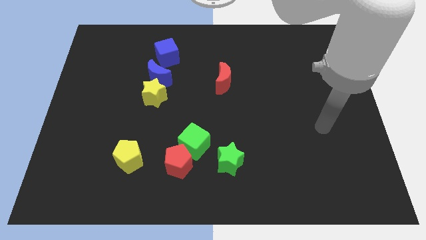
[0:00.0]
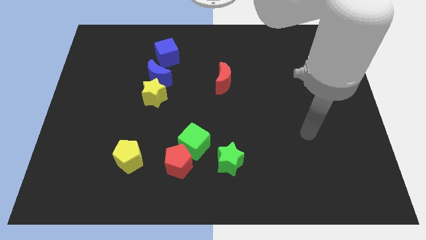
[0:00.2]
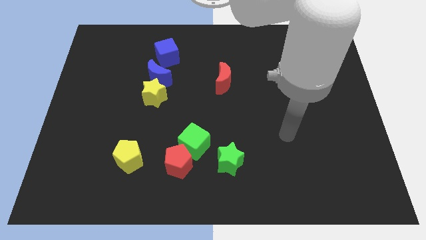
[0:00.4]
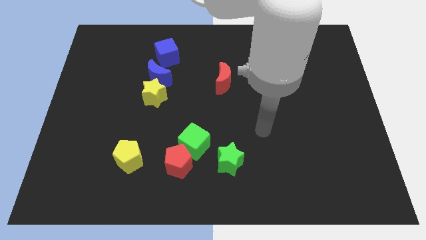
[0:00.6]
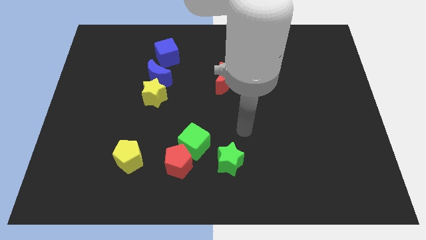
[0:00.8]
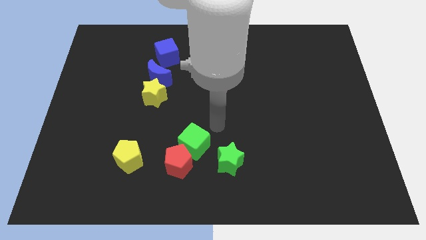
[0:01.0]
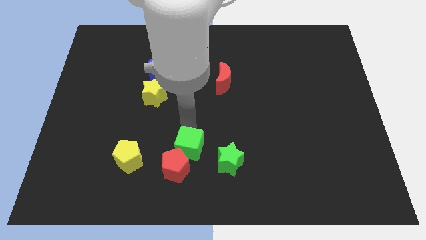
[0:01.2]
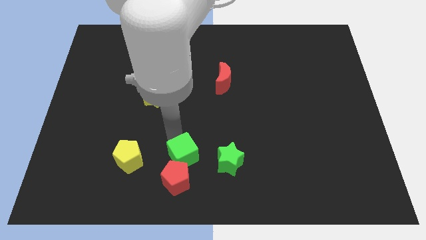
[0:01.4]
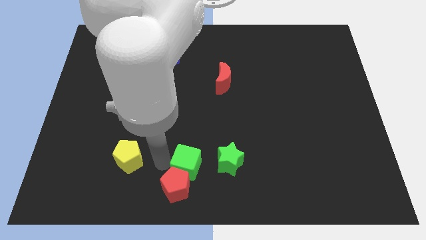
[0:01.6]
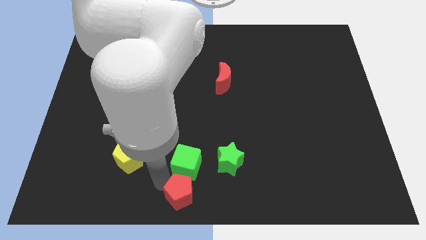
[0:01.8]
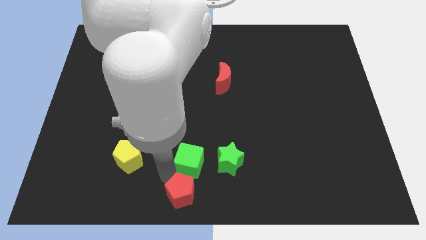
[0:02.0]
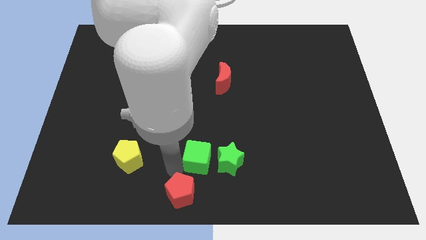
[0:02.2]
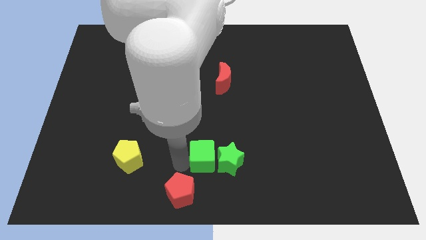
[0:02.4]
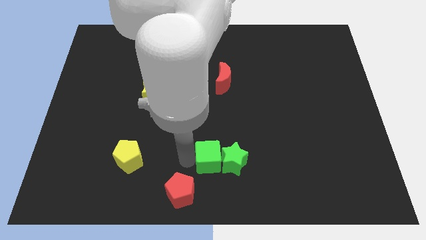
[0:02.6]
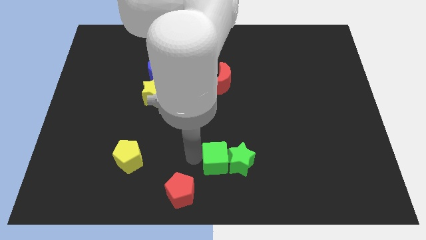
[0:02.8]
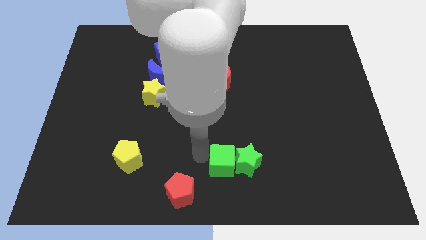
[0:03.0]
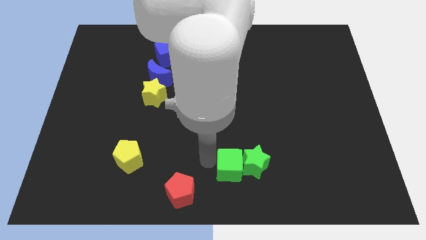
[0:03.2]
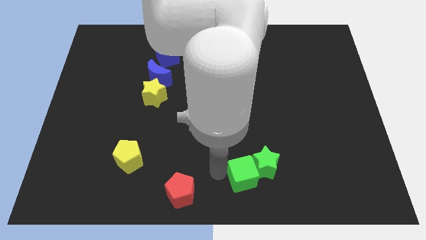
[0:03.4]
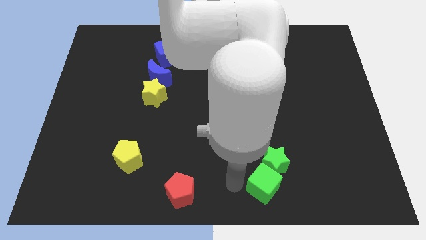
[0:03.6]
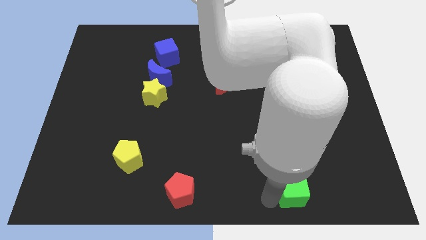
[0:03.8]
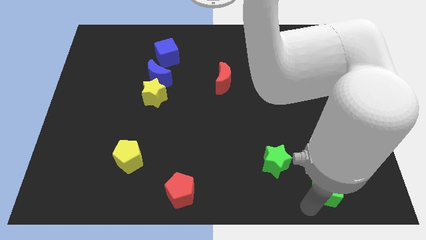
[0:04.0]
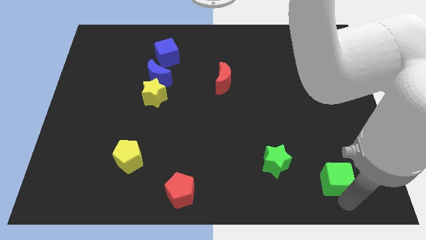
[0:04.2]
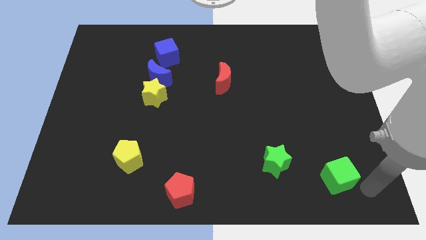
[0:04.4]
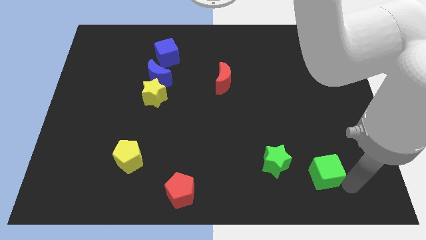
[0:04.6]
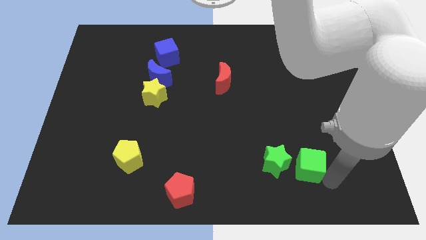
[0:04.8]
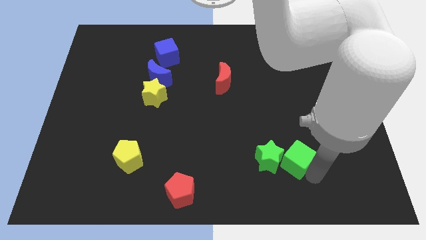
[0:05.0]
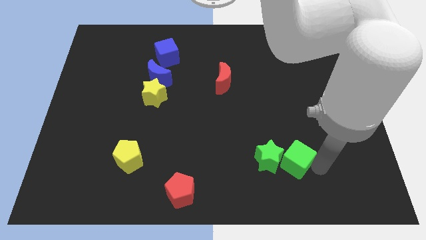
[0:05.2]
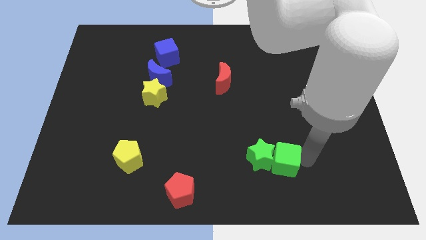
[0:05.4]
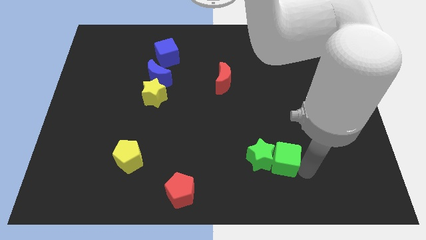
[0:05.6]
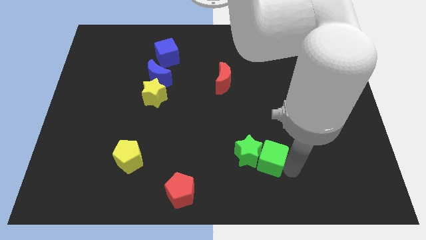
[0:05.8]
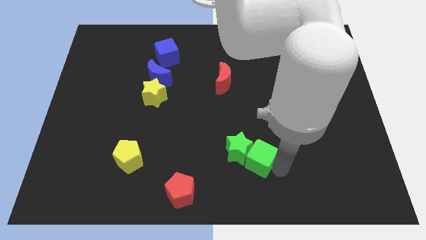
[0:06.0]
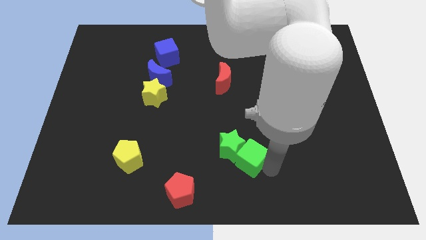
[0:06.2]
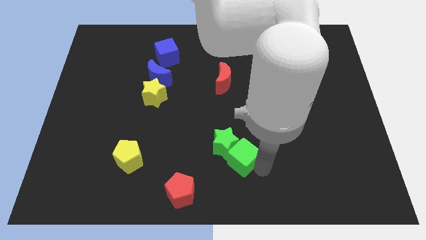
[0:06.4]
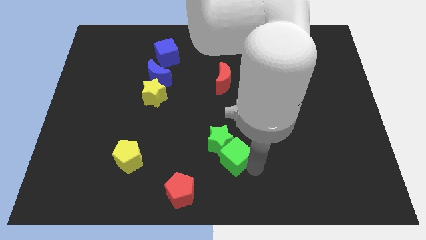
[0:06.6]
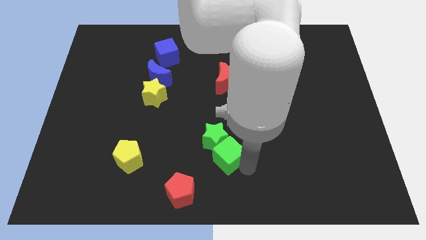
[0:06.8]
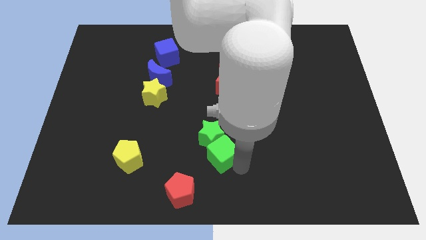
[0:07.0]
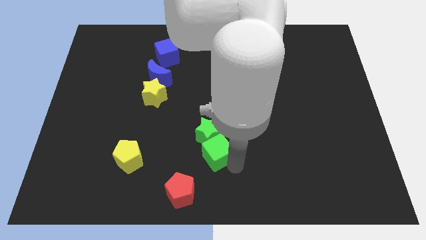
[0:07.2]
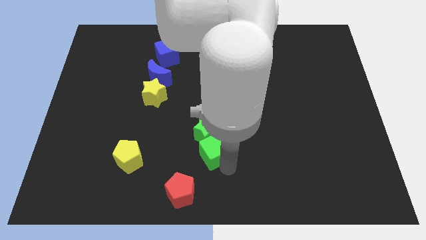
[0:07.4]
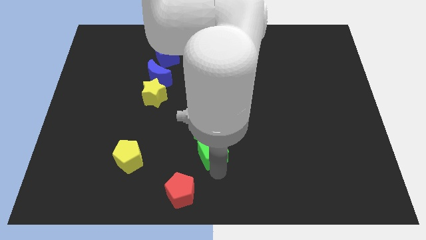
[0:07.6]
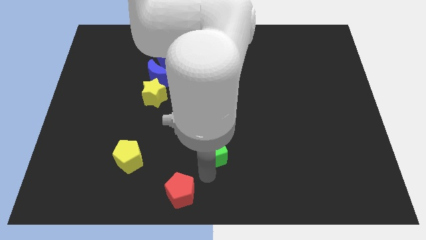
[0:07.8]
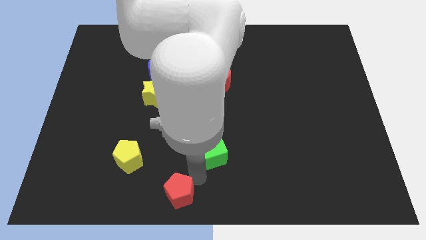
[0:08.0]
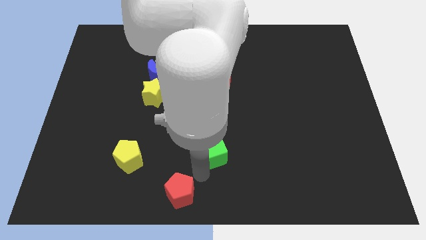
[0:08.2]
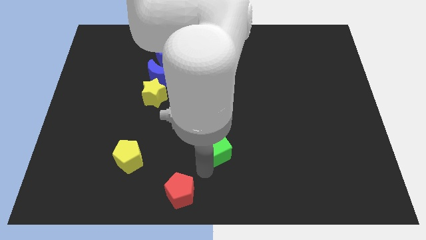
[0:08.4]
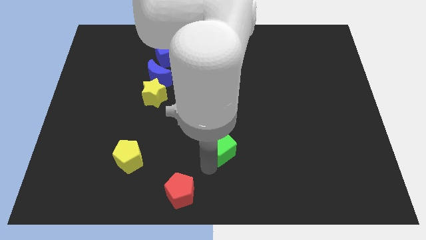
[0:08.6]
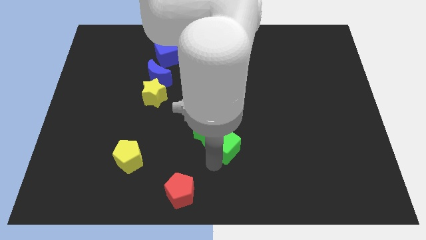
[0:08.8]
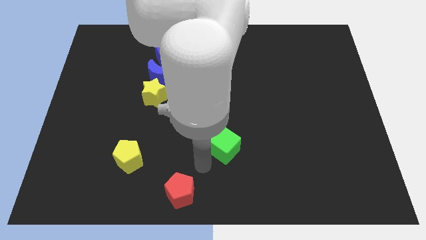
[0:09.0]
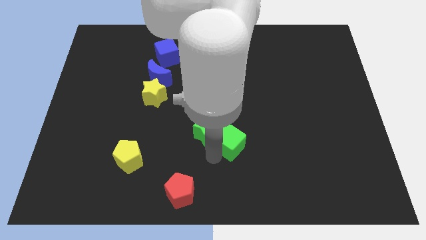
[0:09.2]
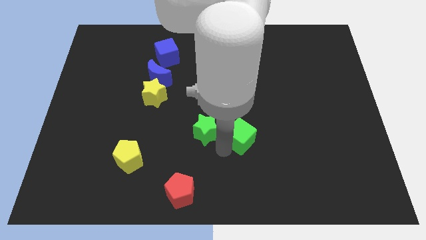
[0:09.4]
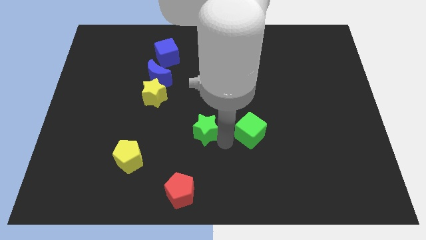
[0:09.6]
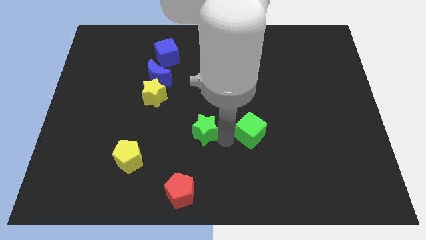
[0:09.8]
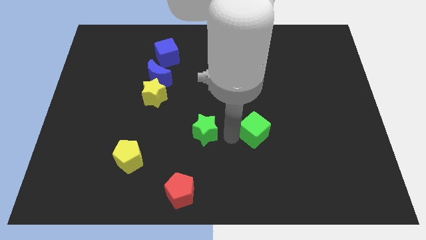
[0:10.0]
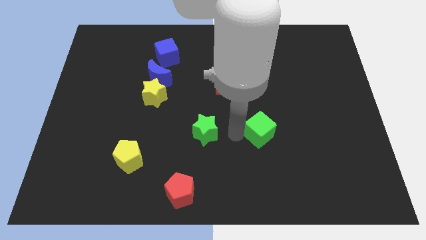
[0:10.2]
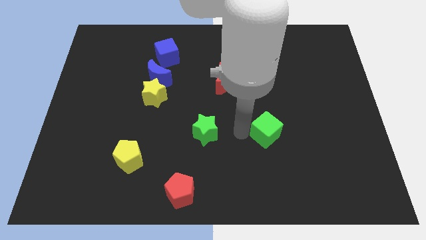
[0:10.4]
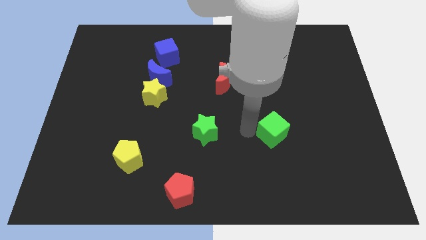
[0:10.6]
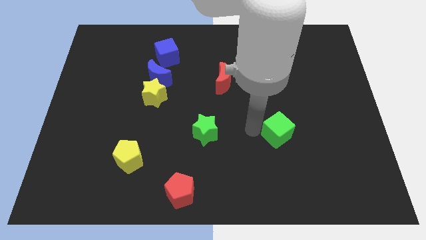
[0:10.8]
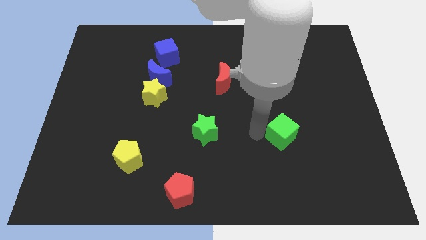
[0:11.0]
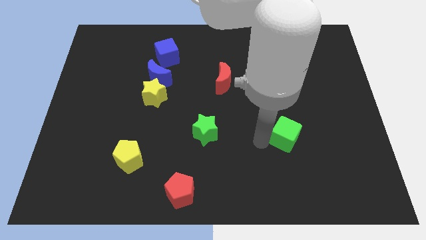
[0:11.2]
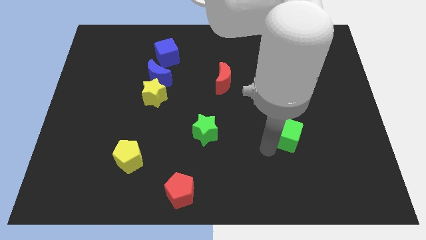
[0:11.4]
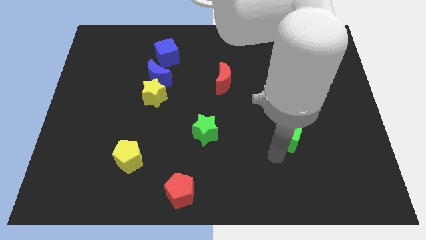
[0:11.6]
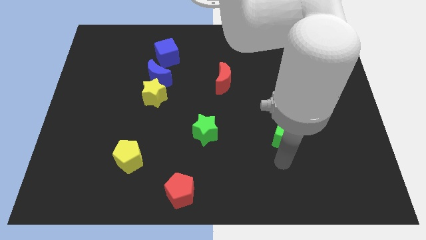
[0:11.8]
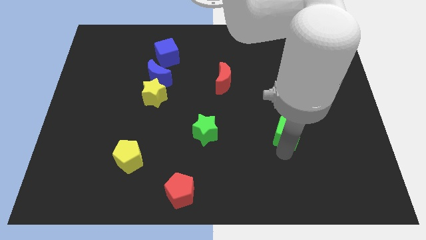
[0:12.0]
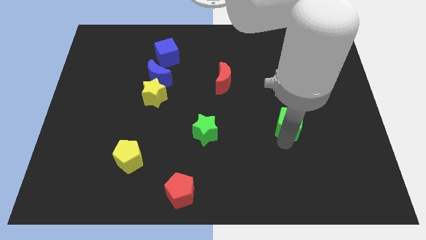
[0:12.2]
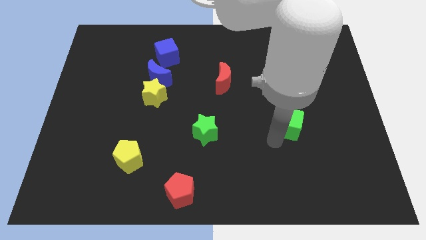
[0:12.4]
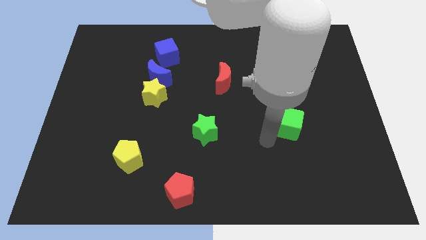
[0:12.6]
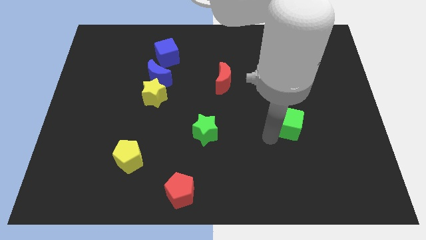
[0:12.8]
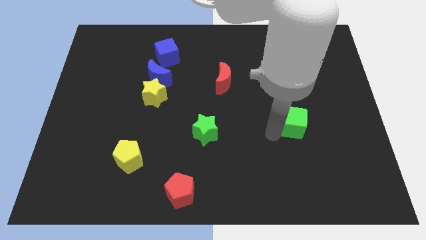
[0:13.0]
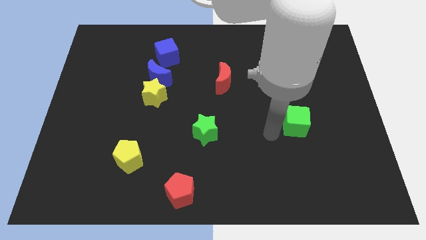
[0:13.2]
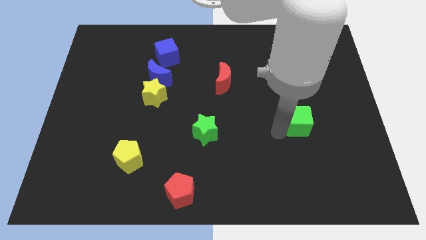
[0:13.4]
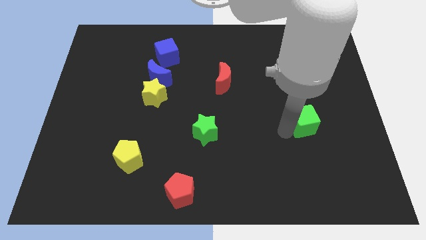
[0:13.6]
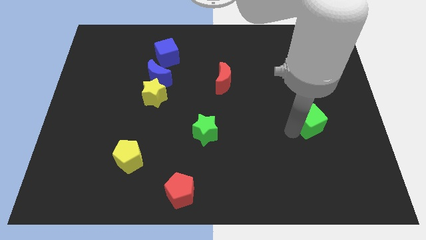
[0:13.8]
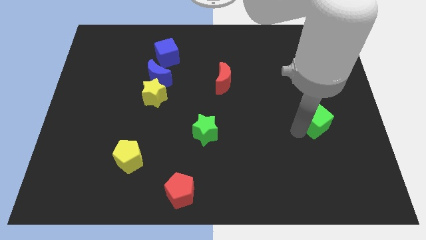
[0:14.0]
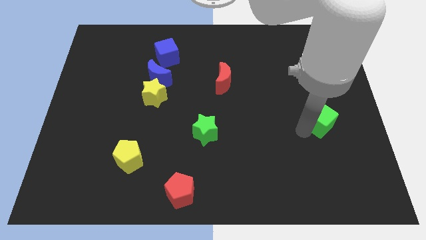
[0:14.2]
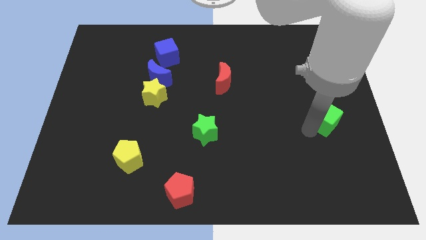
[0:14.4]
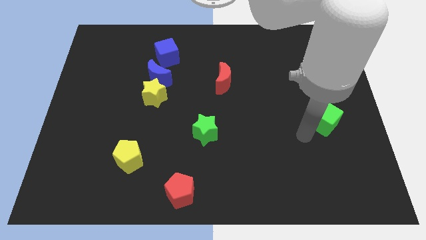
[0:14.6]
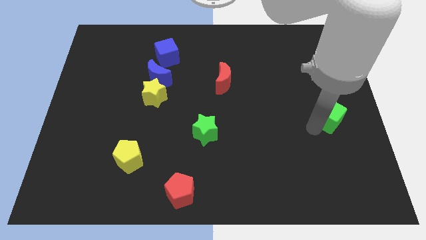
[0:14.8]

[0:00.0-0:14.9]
put the green cube to the right side
